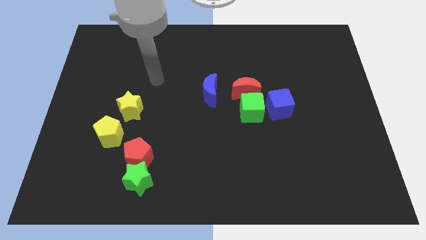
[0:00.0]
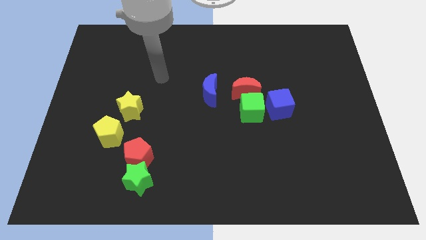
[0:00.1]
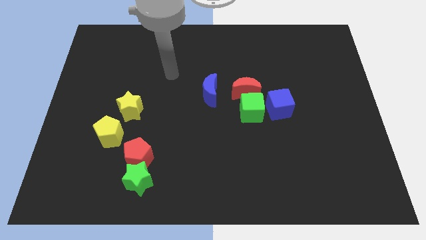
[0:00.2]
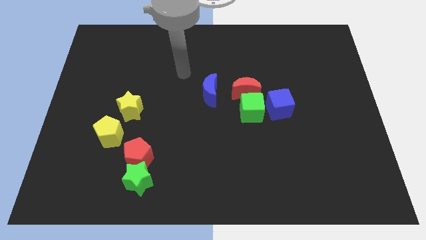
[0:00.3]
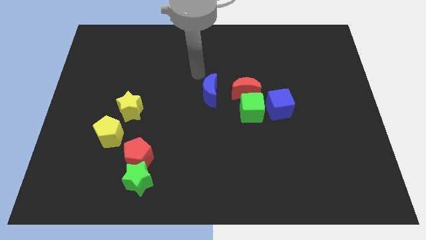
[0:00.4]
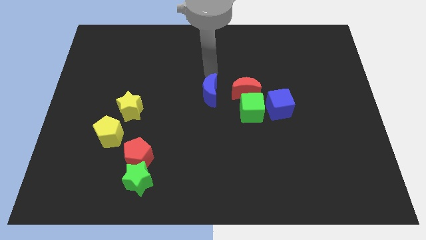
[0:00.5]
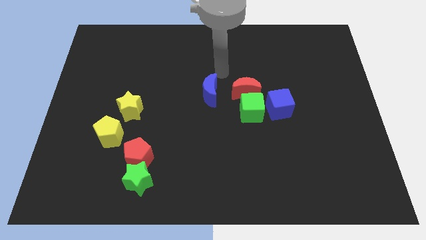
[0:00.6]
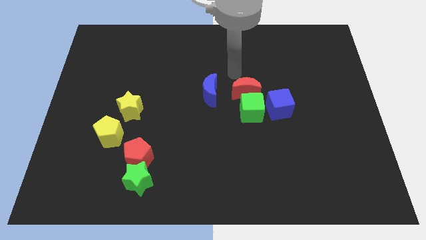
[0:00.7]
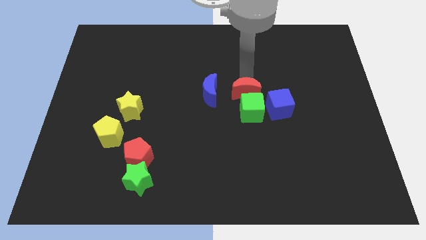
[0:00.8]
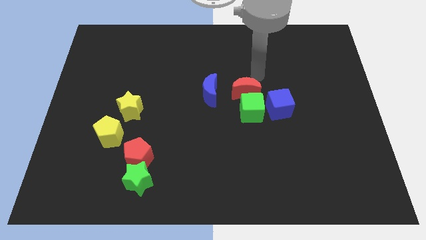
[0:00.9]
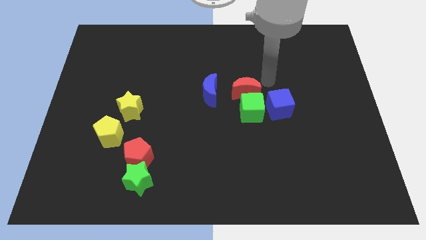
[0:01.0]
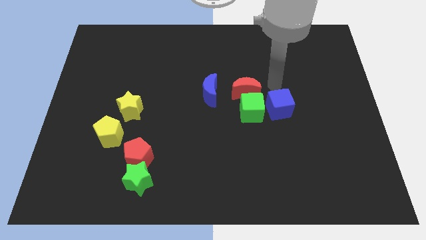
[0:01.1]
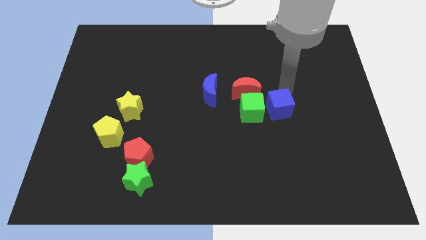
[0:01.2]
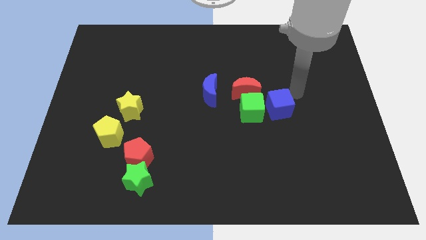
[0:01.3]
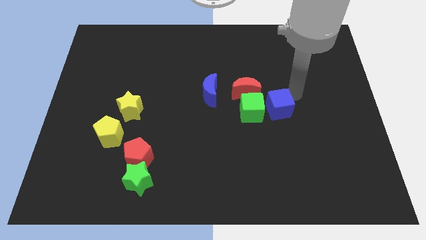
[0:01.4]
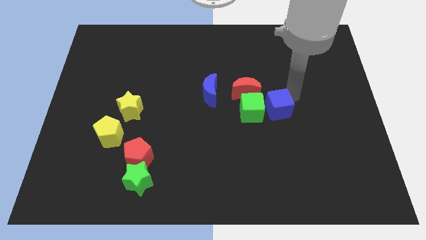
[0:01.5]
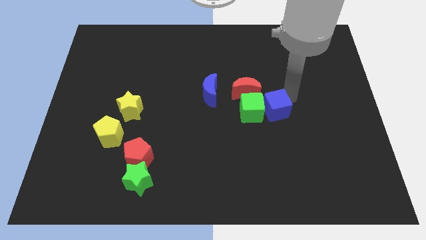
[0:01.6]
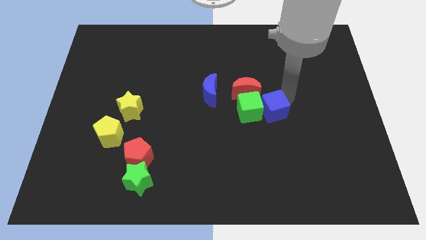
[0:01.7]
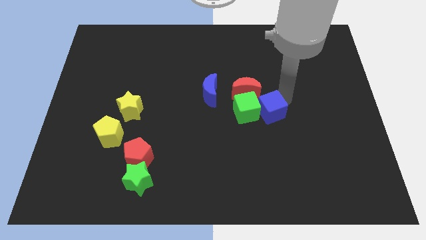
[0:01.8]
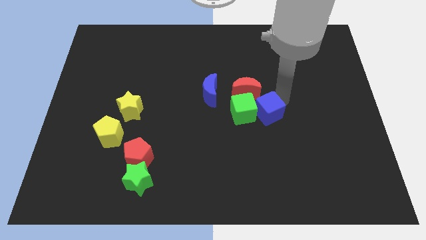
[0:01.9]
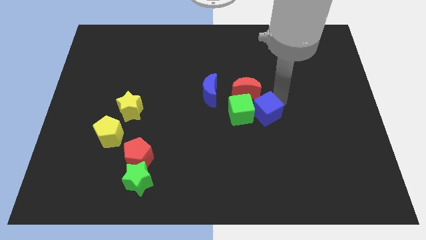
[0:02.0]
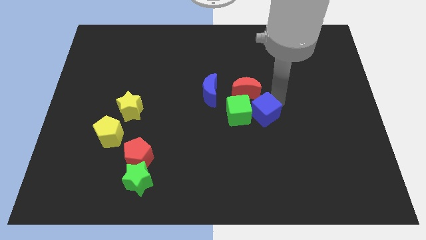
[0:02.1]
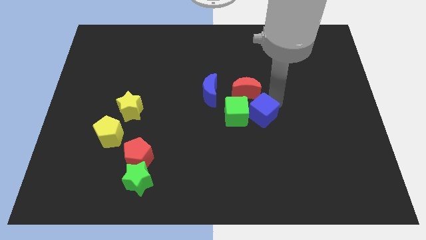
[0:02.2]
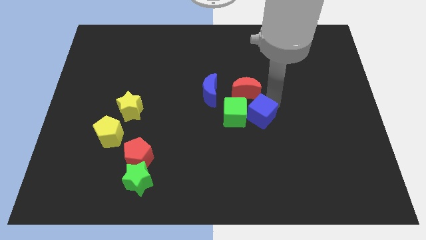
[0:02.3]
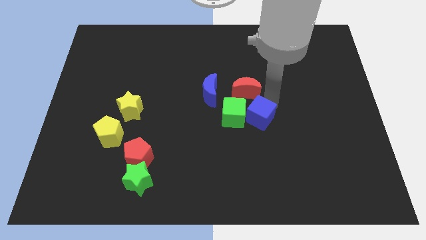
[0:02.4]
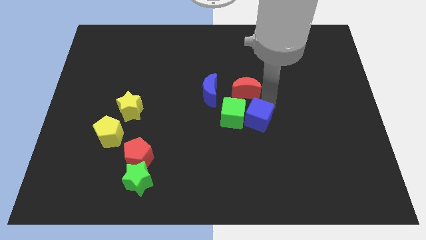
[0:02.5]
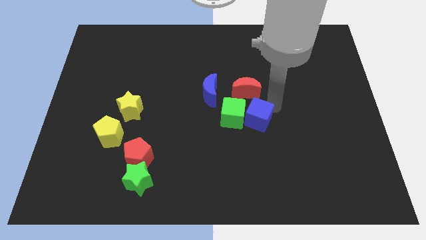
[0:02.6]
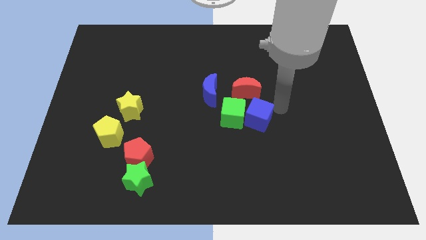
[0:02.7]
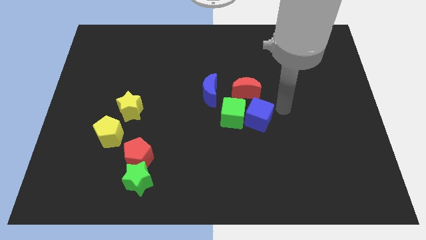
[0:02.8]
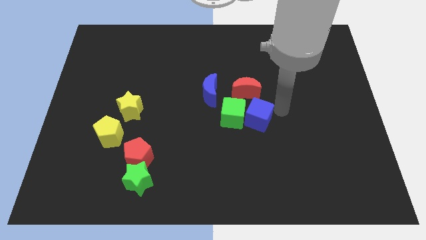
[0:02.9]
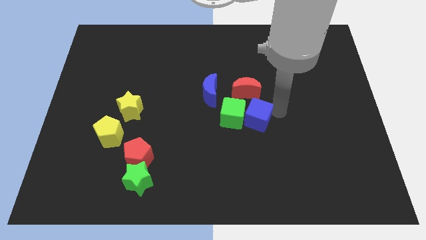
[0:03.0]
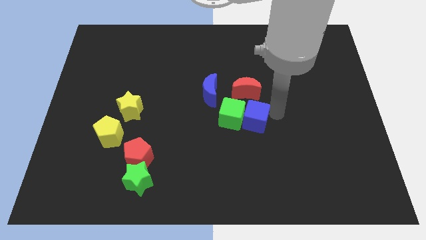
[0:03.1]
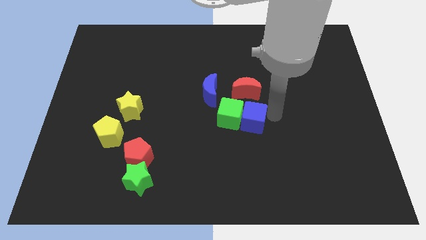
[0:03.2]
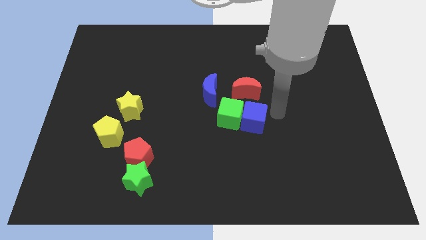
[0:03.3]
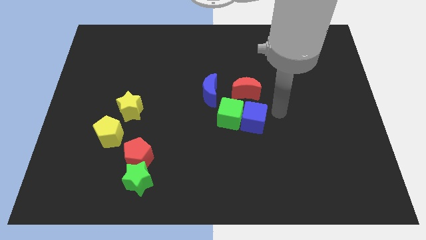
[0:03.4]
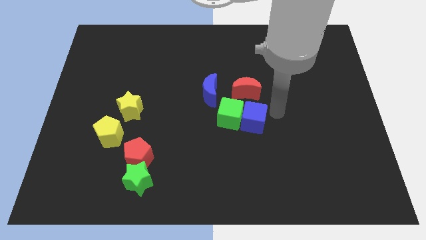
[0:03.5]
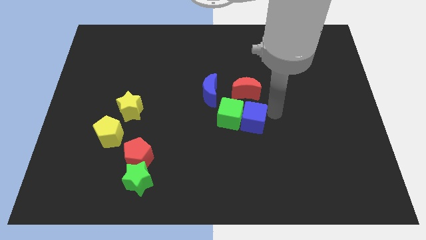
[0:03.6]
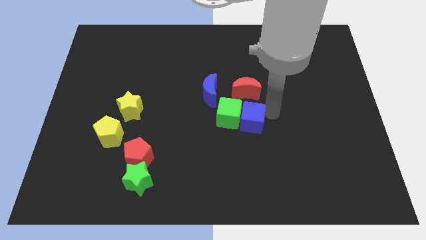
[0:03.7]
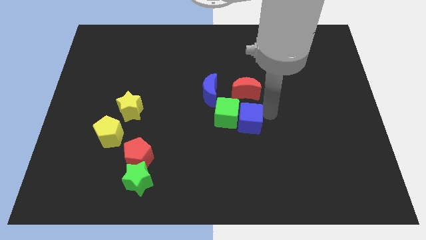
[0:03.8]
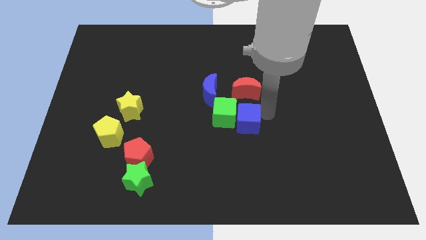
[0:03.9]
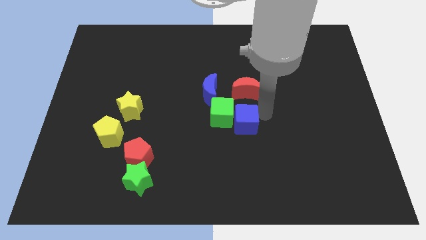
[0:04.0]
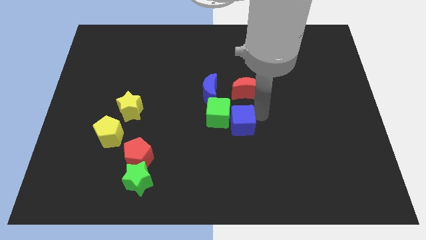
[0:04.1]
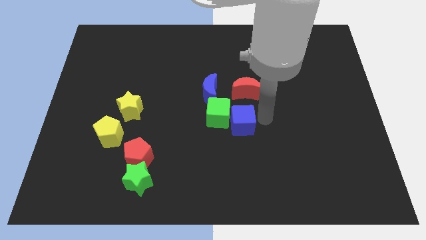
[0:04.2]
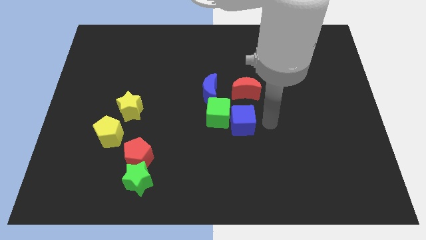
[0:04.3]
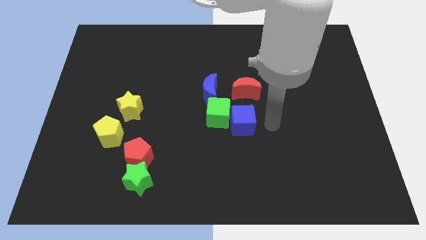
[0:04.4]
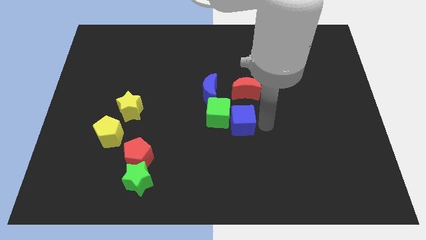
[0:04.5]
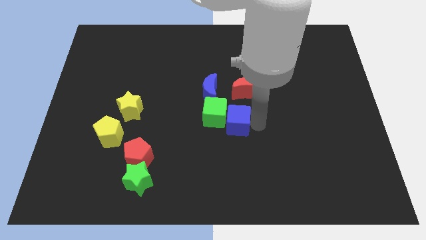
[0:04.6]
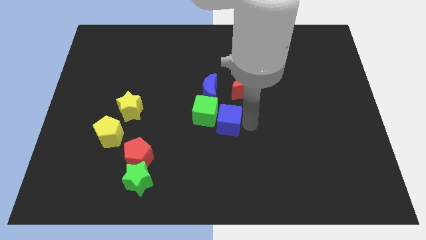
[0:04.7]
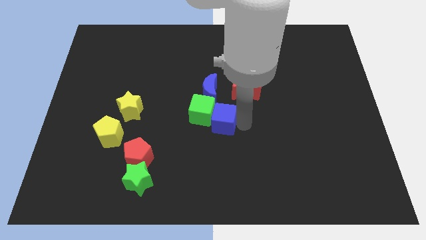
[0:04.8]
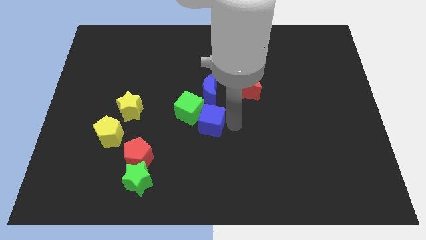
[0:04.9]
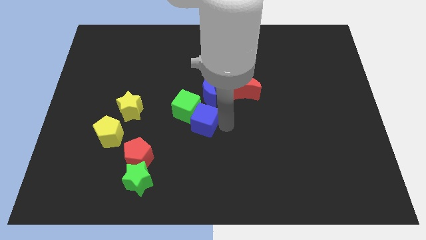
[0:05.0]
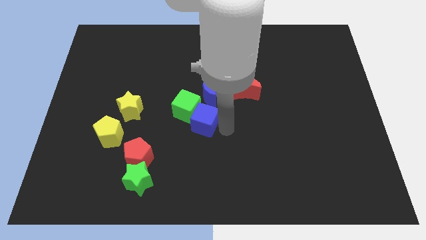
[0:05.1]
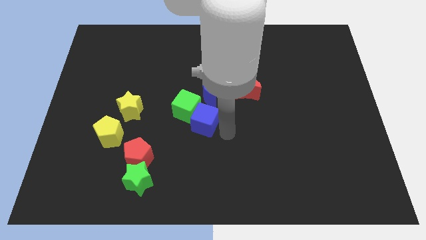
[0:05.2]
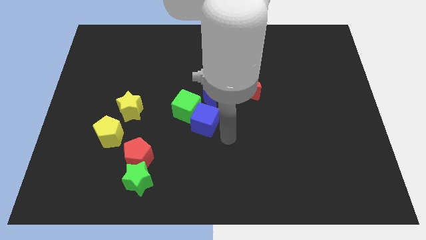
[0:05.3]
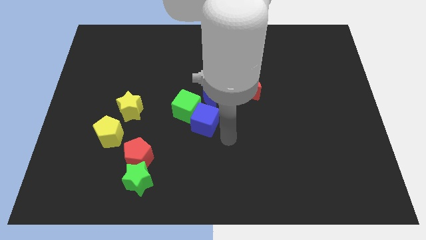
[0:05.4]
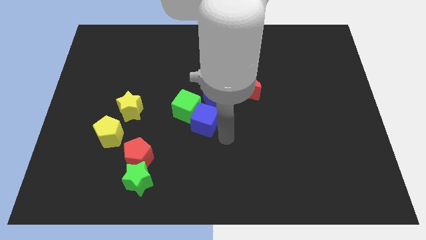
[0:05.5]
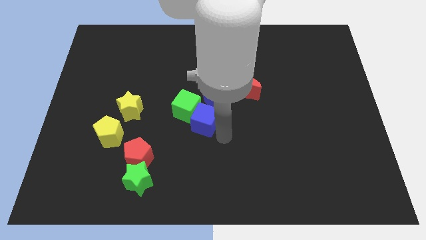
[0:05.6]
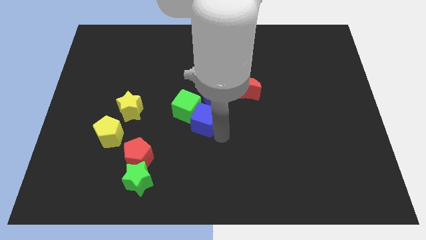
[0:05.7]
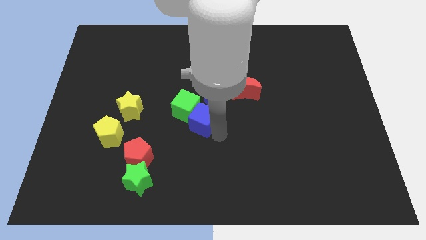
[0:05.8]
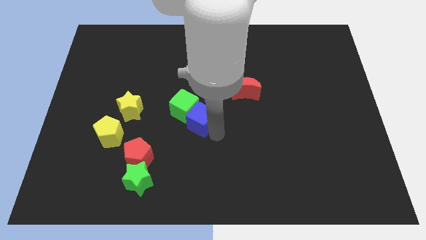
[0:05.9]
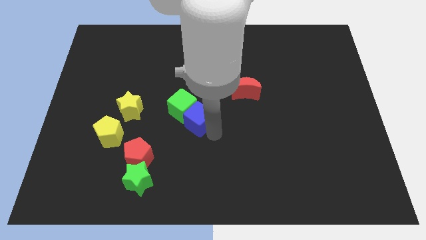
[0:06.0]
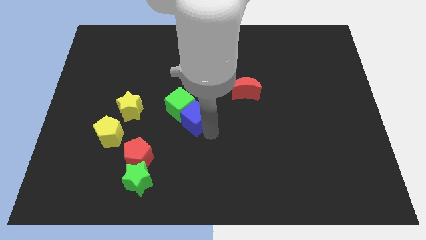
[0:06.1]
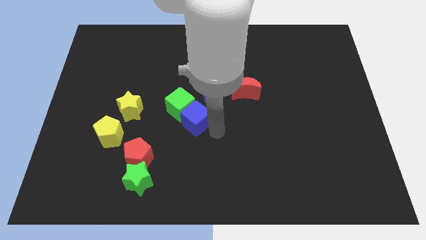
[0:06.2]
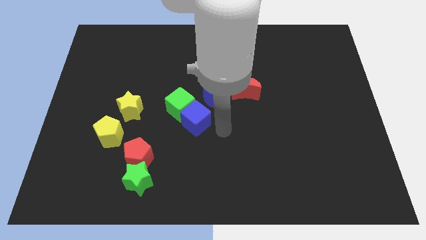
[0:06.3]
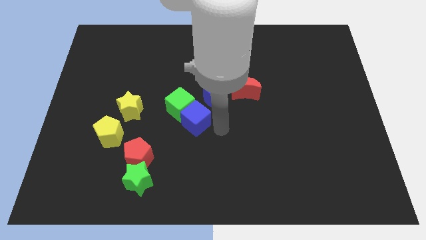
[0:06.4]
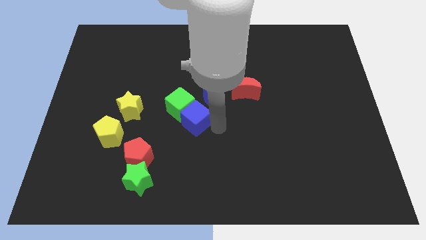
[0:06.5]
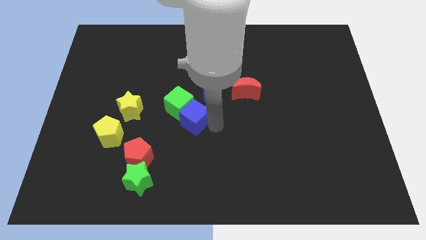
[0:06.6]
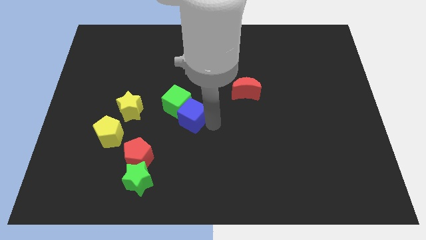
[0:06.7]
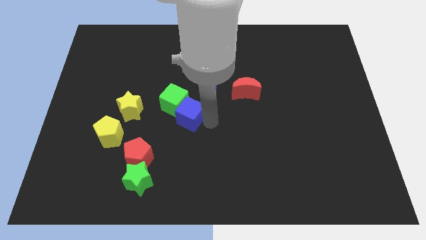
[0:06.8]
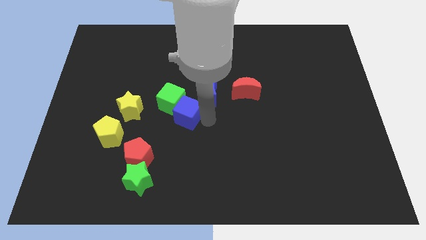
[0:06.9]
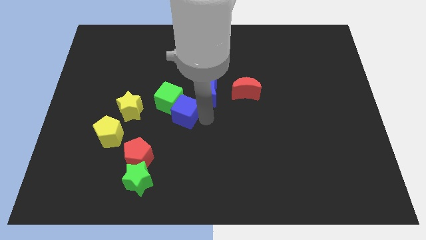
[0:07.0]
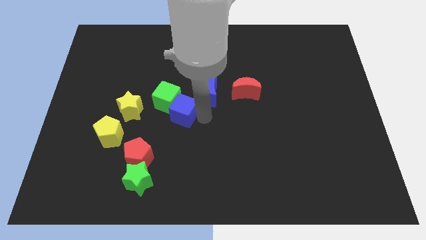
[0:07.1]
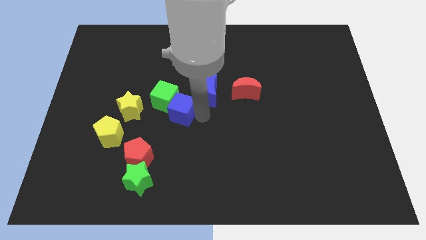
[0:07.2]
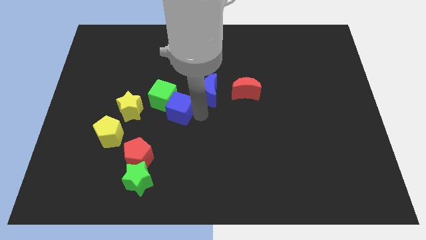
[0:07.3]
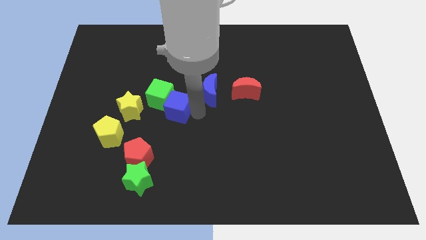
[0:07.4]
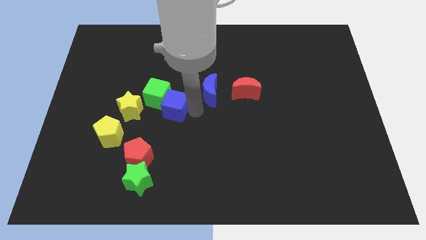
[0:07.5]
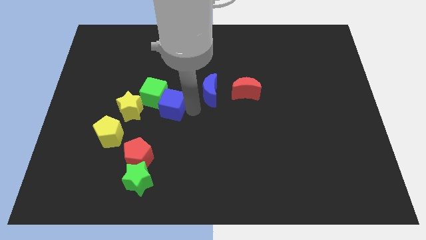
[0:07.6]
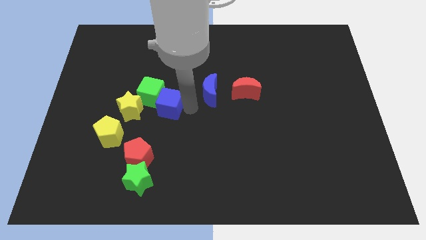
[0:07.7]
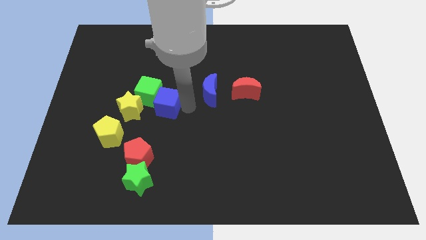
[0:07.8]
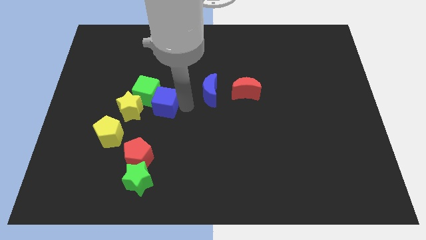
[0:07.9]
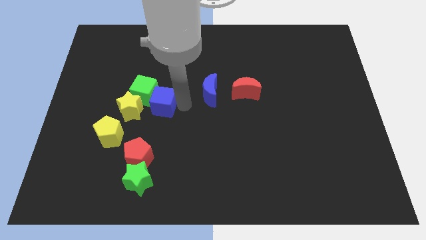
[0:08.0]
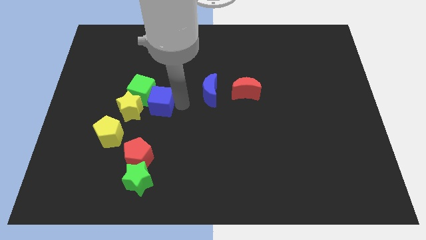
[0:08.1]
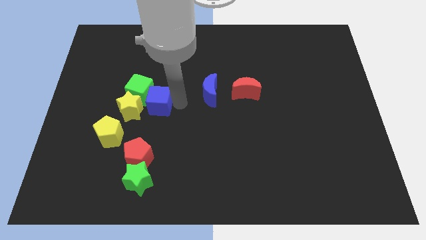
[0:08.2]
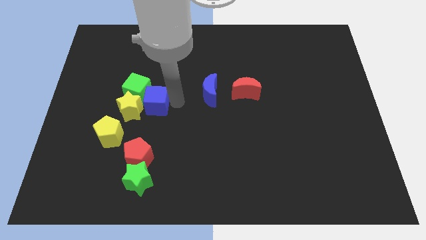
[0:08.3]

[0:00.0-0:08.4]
put the blue cube close to the yellow star
